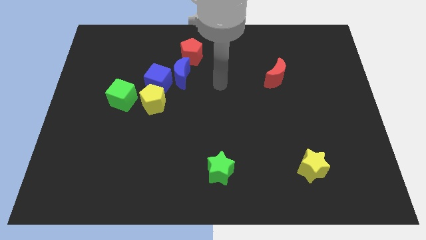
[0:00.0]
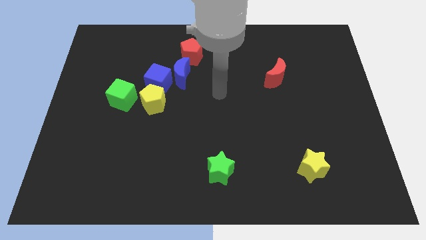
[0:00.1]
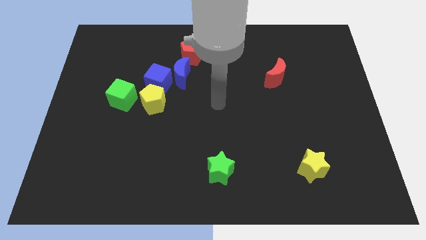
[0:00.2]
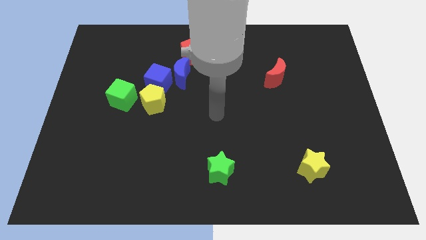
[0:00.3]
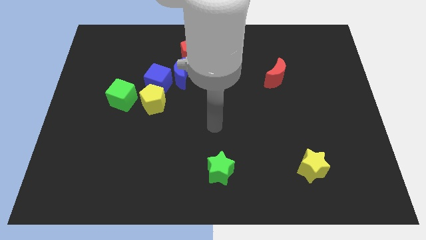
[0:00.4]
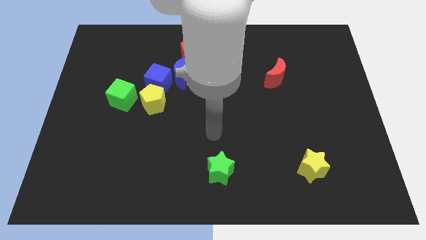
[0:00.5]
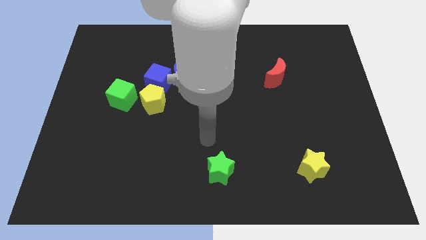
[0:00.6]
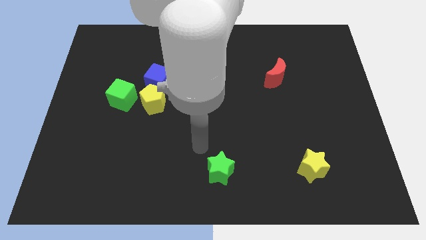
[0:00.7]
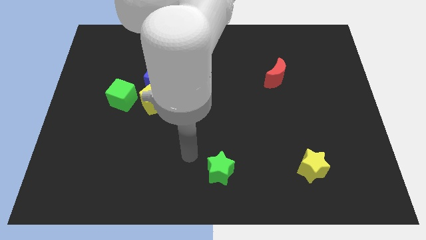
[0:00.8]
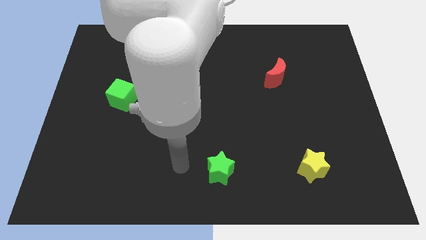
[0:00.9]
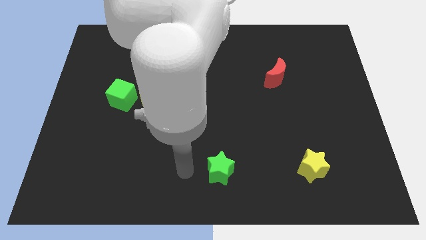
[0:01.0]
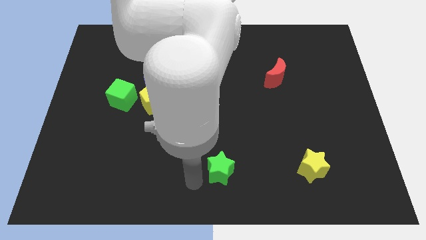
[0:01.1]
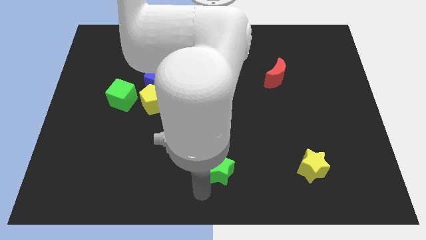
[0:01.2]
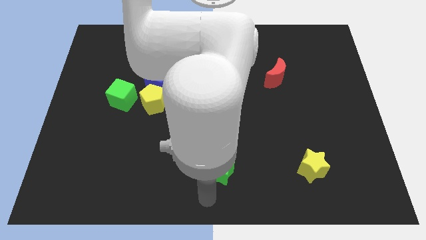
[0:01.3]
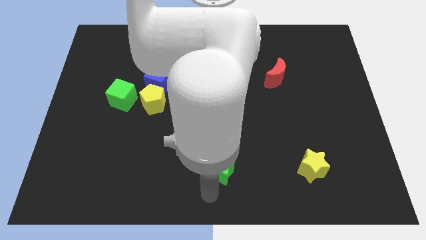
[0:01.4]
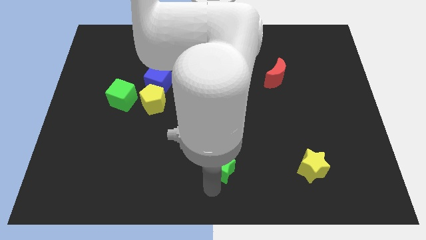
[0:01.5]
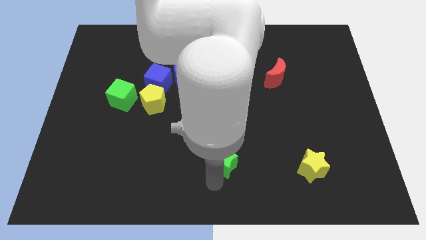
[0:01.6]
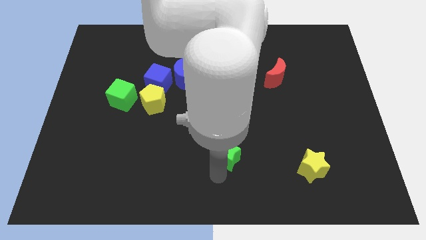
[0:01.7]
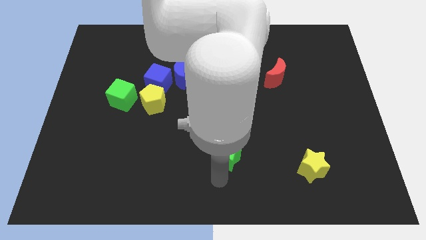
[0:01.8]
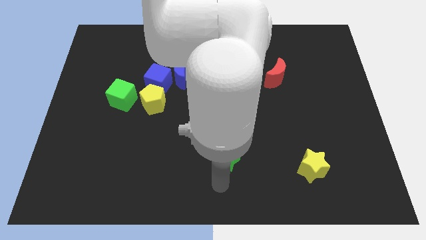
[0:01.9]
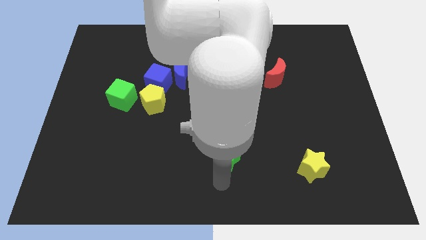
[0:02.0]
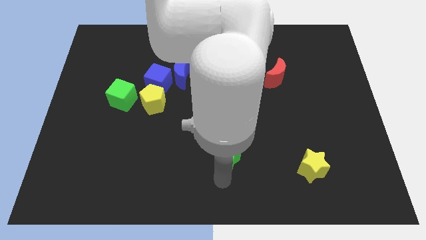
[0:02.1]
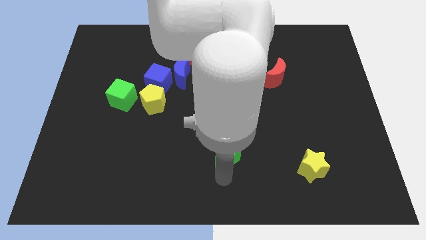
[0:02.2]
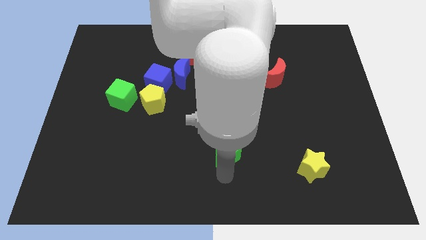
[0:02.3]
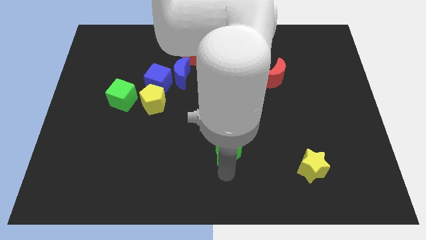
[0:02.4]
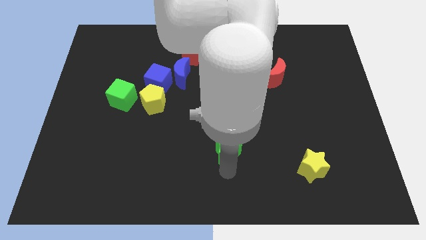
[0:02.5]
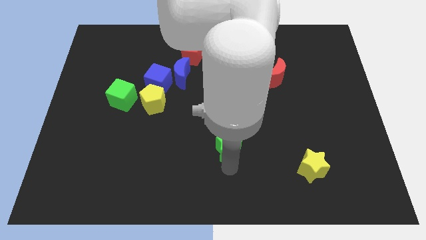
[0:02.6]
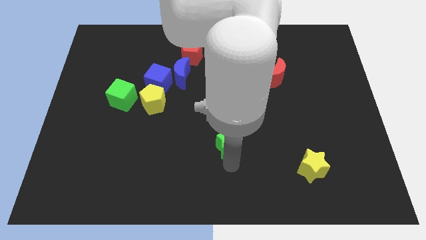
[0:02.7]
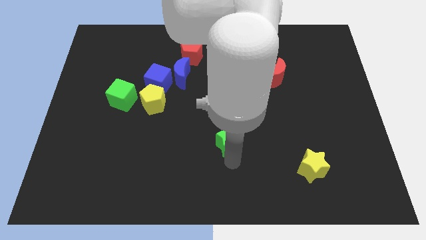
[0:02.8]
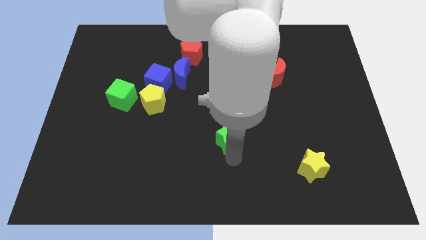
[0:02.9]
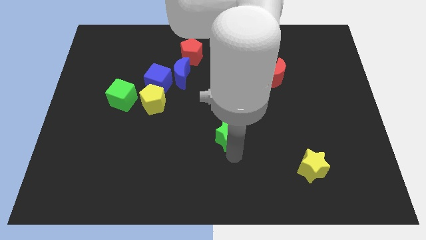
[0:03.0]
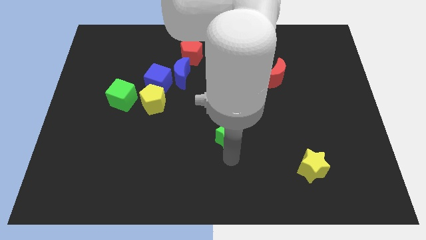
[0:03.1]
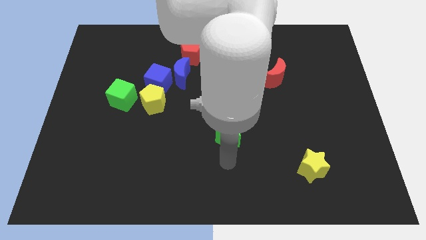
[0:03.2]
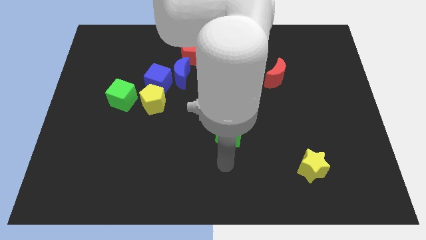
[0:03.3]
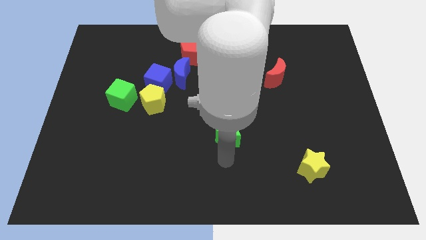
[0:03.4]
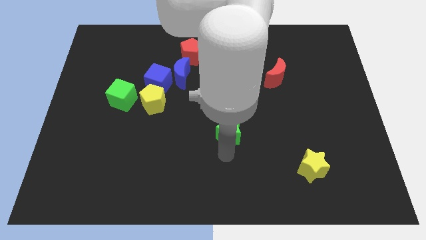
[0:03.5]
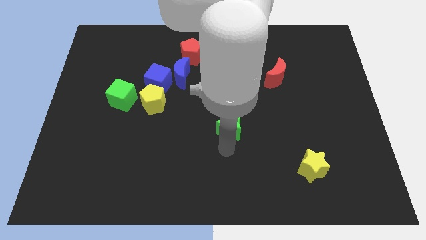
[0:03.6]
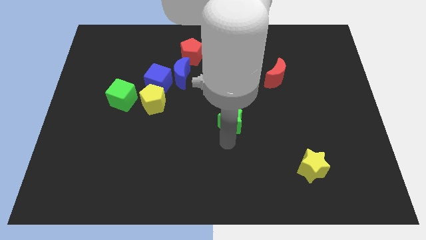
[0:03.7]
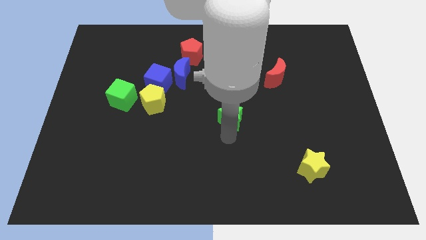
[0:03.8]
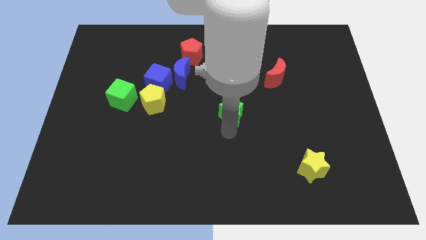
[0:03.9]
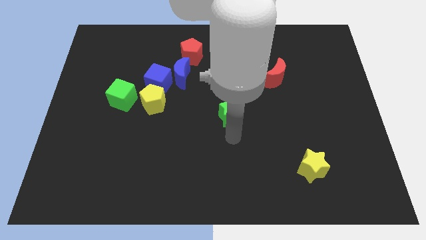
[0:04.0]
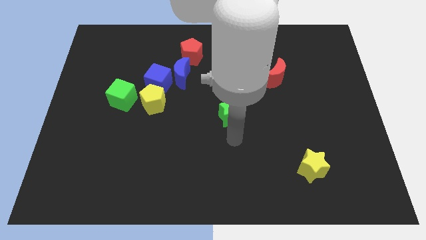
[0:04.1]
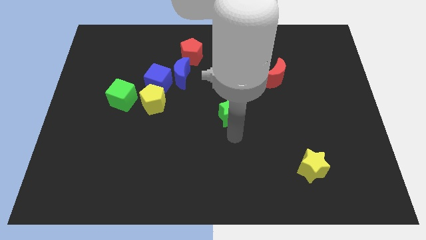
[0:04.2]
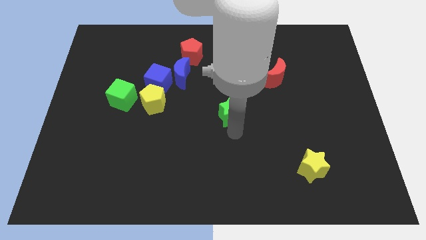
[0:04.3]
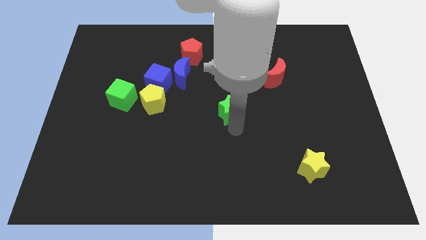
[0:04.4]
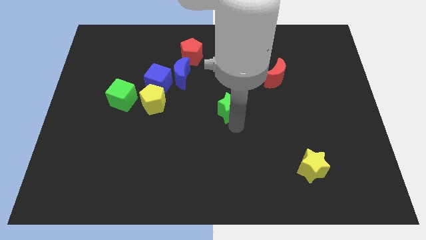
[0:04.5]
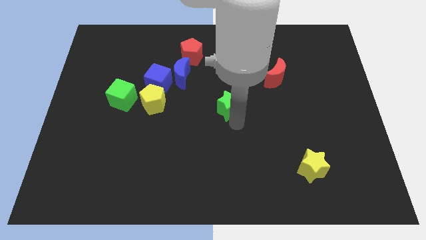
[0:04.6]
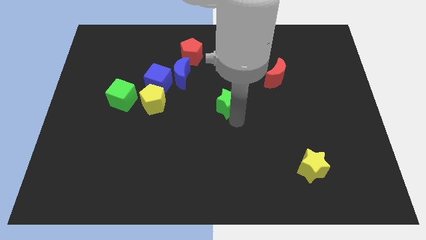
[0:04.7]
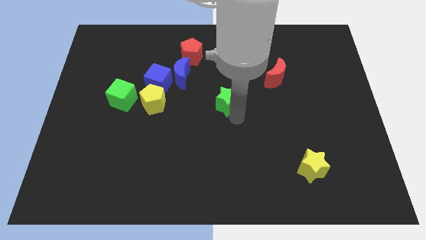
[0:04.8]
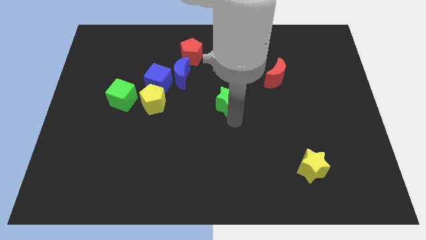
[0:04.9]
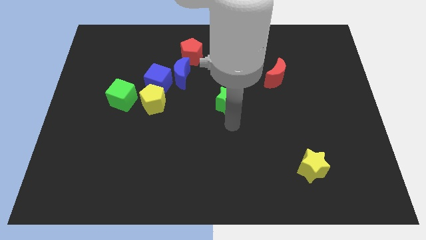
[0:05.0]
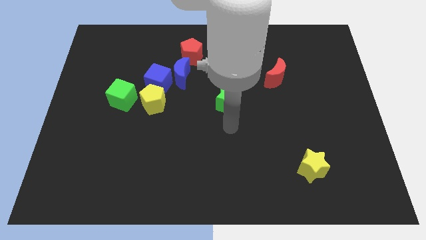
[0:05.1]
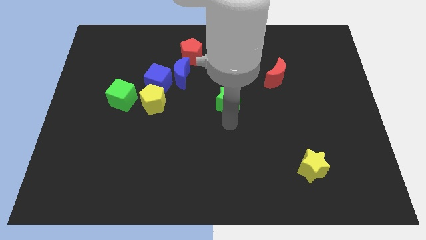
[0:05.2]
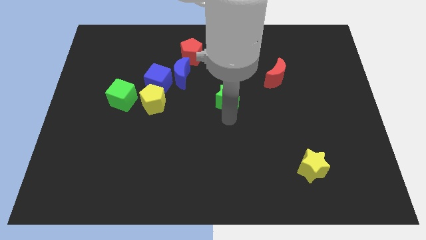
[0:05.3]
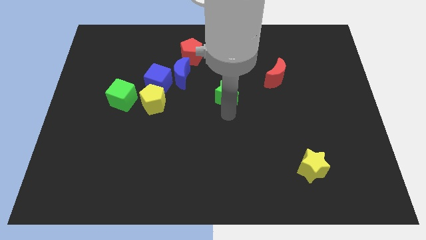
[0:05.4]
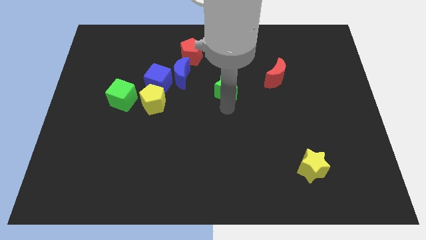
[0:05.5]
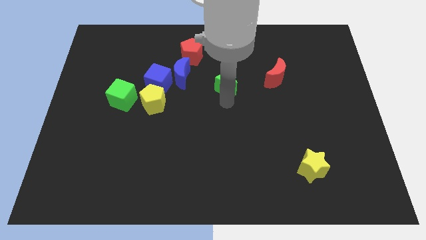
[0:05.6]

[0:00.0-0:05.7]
put the green star to the right of the blue moon
